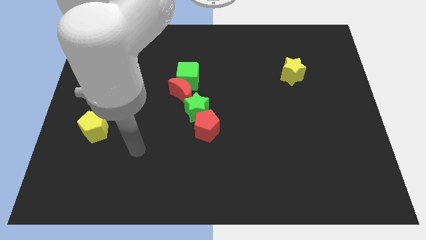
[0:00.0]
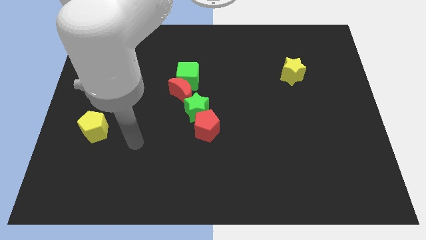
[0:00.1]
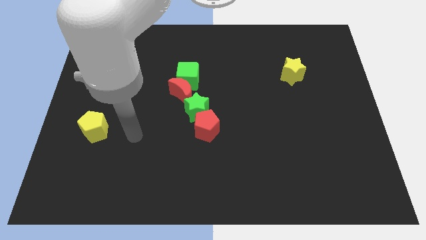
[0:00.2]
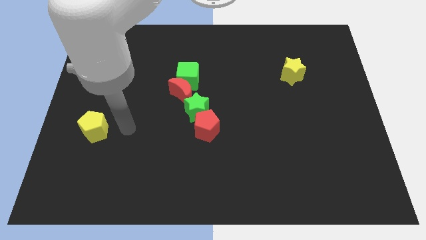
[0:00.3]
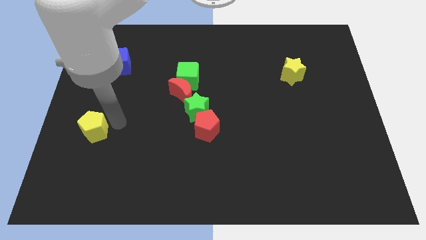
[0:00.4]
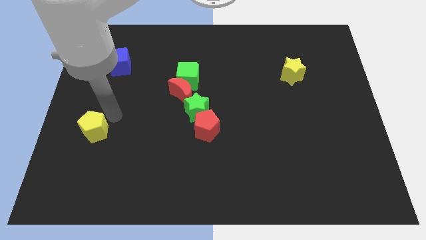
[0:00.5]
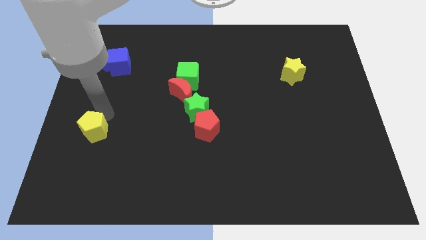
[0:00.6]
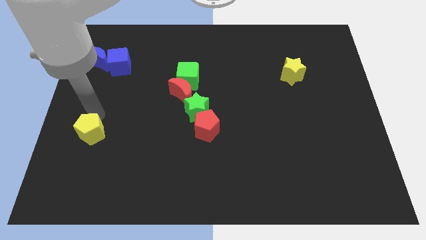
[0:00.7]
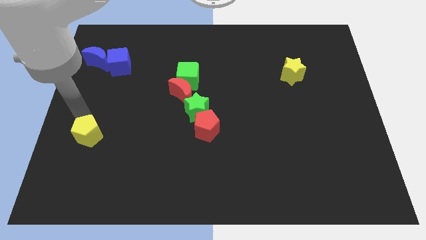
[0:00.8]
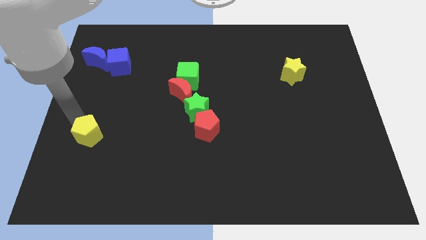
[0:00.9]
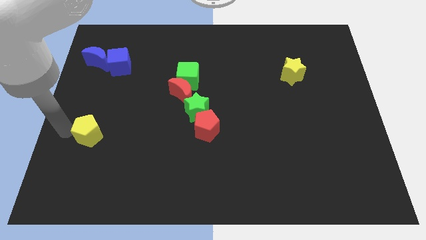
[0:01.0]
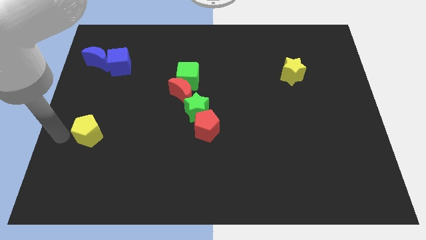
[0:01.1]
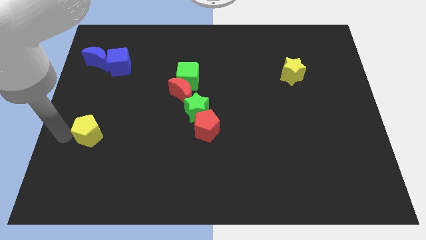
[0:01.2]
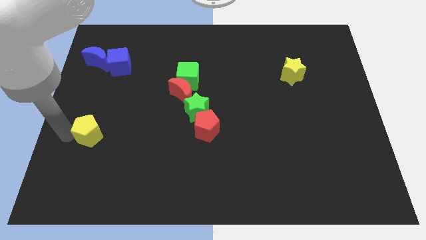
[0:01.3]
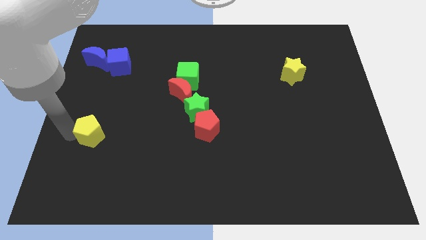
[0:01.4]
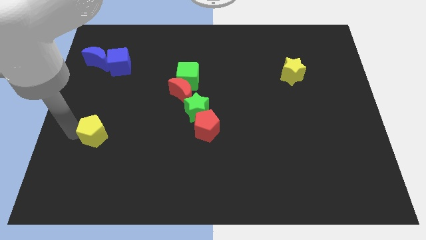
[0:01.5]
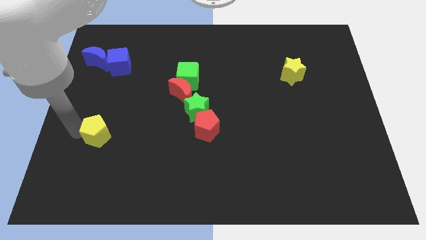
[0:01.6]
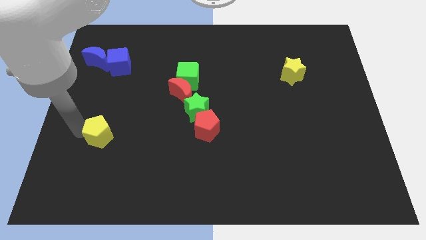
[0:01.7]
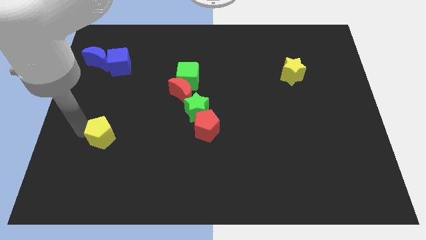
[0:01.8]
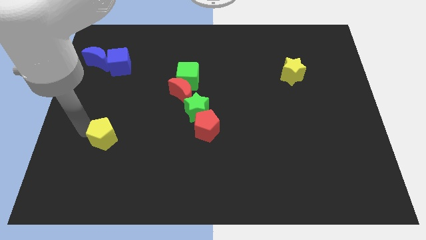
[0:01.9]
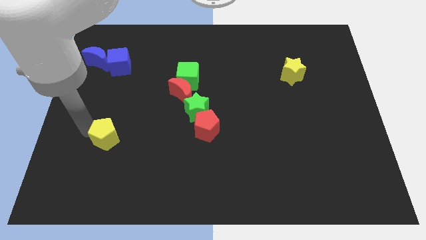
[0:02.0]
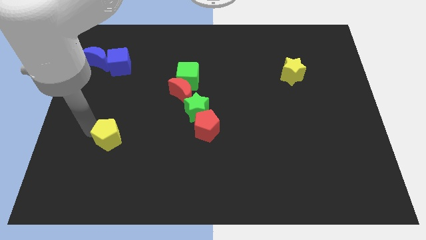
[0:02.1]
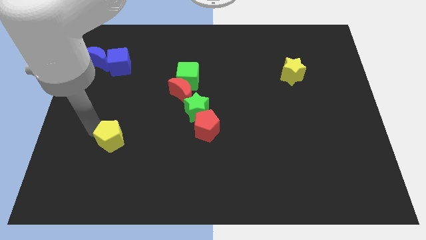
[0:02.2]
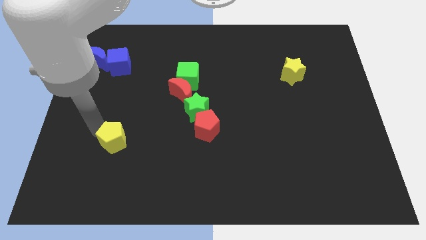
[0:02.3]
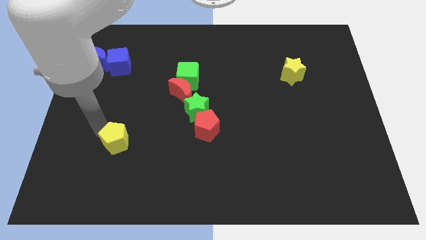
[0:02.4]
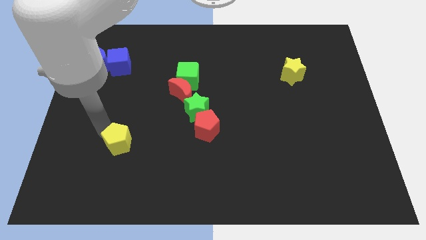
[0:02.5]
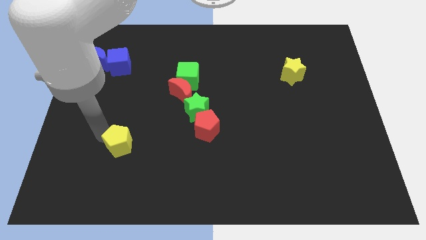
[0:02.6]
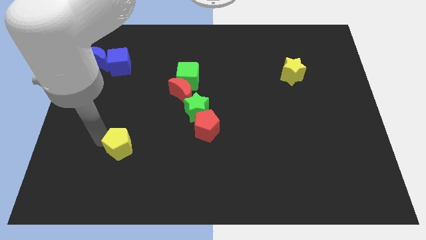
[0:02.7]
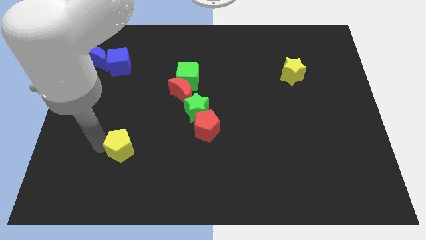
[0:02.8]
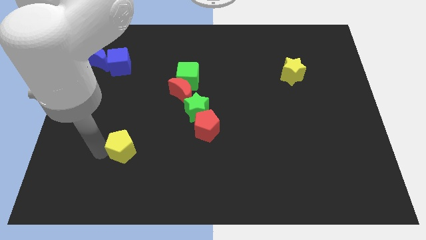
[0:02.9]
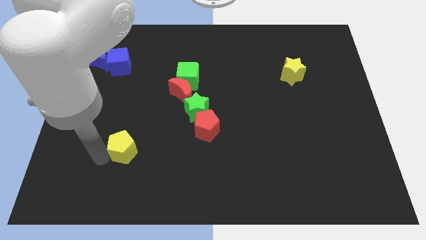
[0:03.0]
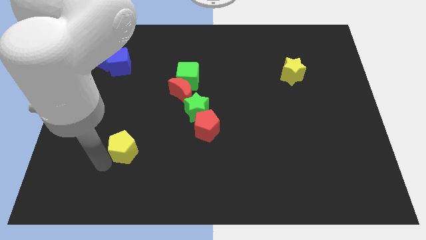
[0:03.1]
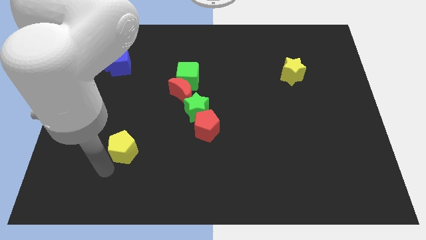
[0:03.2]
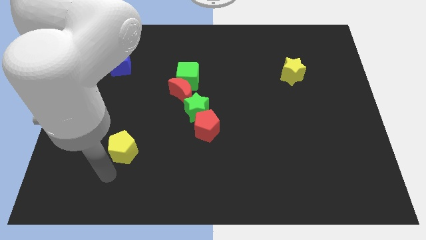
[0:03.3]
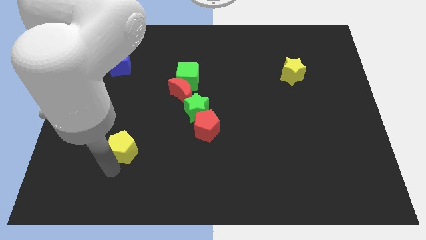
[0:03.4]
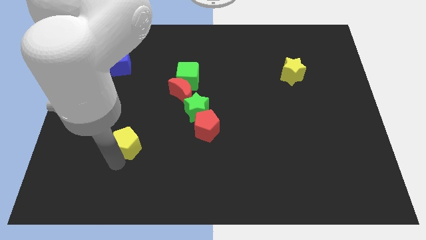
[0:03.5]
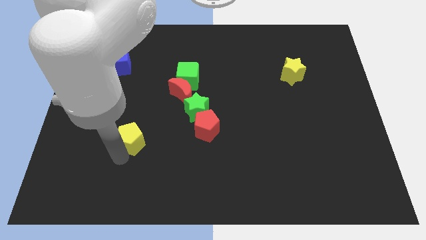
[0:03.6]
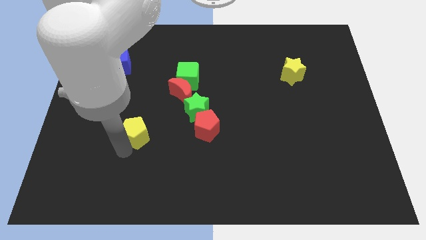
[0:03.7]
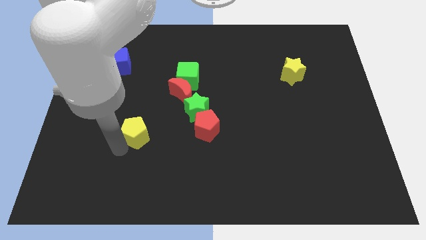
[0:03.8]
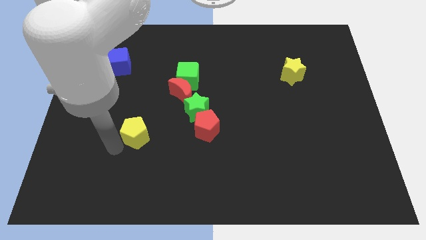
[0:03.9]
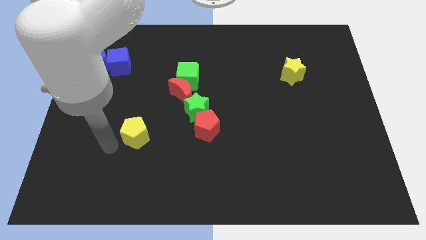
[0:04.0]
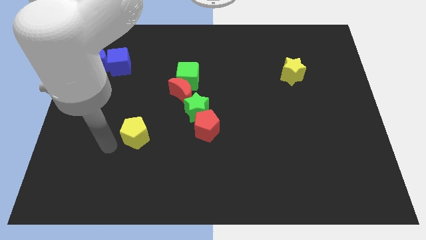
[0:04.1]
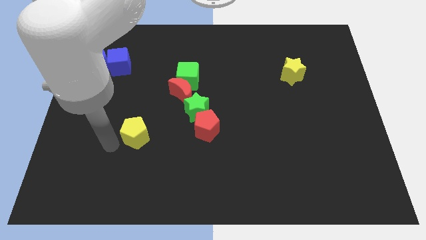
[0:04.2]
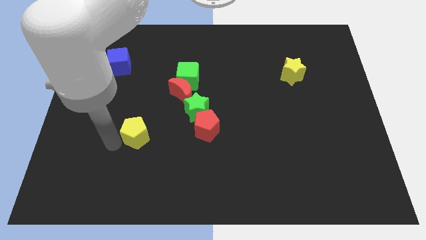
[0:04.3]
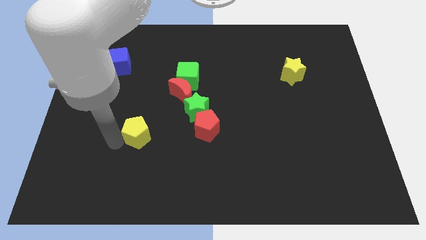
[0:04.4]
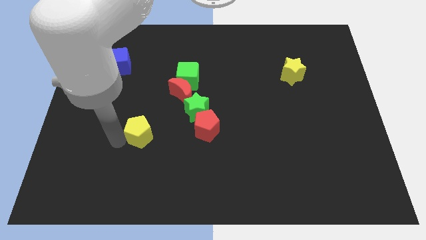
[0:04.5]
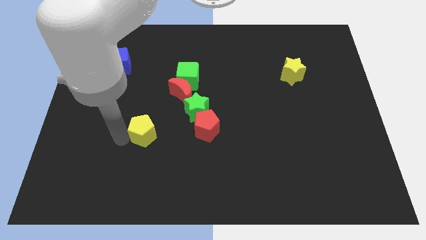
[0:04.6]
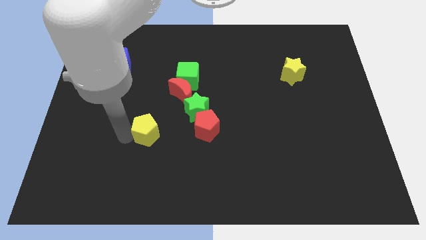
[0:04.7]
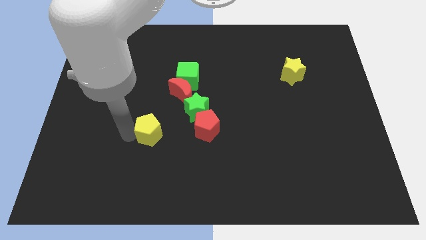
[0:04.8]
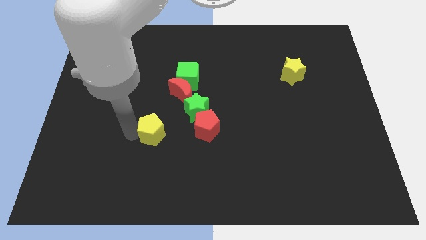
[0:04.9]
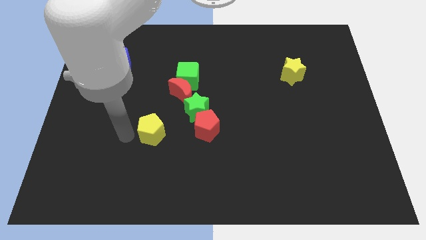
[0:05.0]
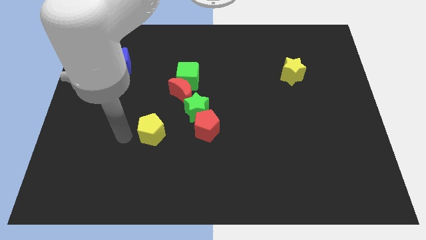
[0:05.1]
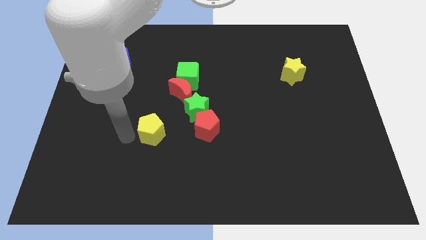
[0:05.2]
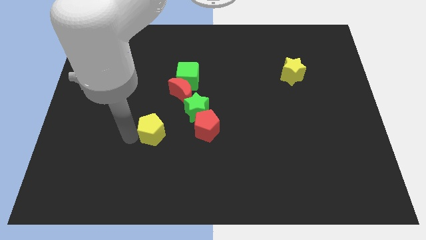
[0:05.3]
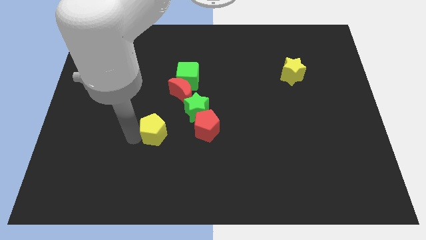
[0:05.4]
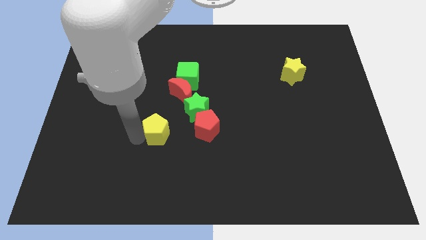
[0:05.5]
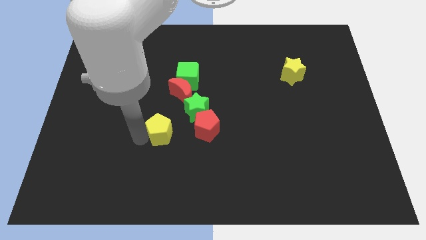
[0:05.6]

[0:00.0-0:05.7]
slide the yellow pentagon to the bottom side of the red moon

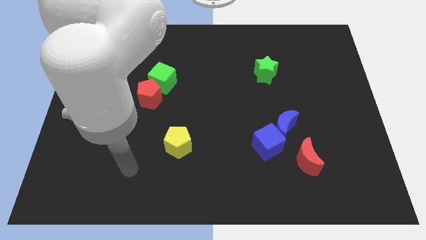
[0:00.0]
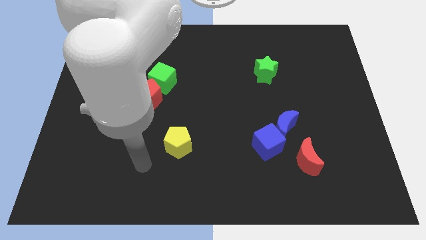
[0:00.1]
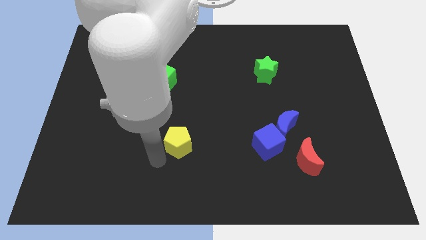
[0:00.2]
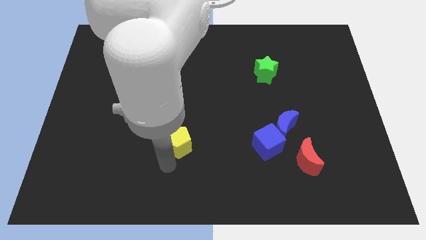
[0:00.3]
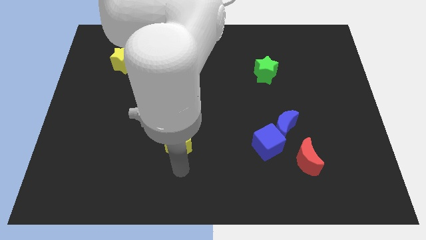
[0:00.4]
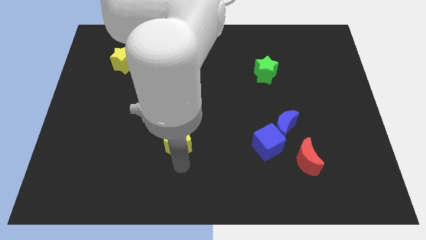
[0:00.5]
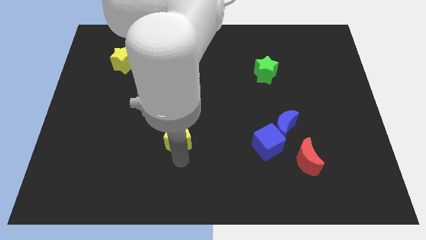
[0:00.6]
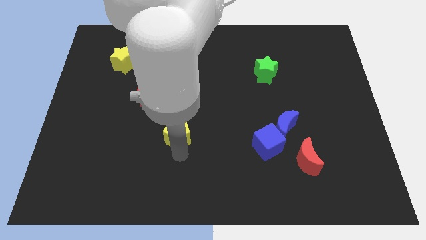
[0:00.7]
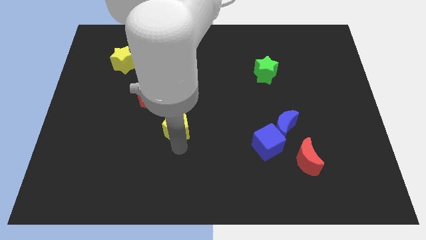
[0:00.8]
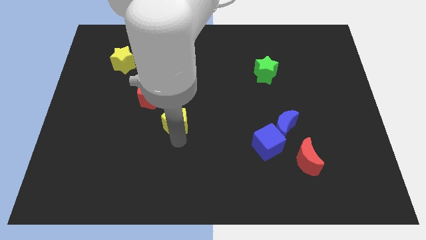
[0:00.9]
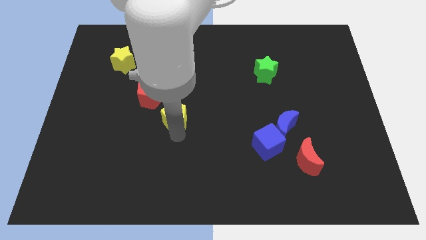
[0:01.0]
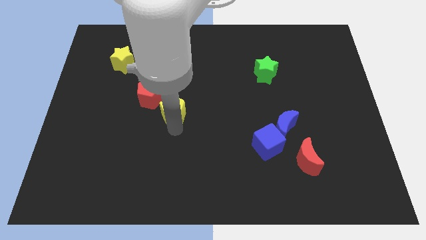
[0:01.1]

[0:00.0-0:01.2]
put the yellow pentagon right of the red pentagon
